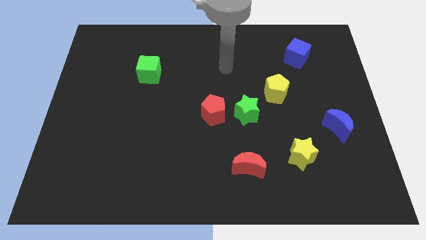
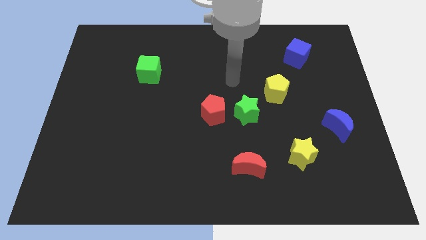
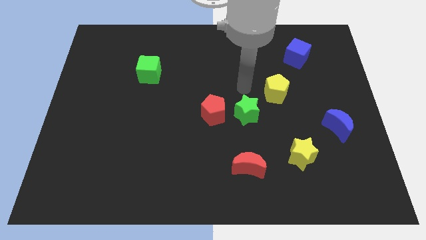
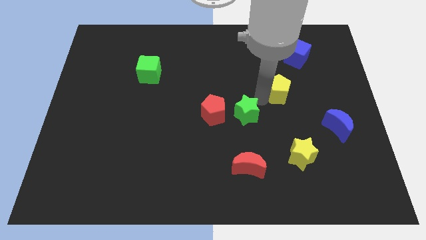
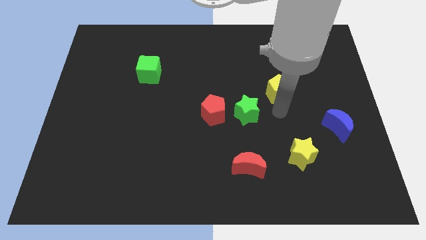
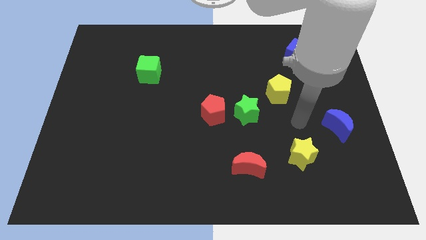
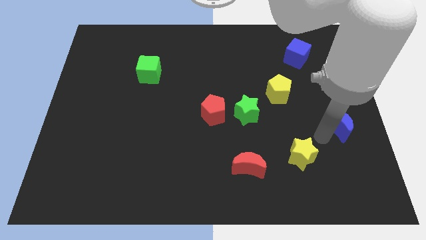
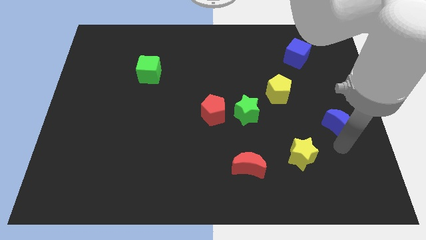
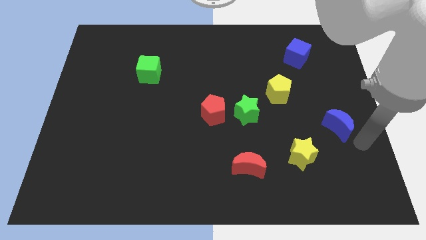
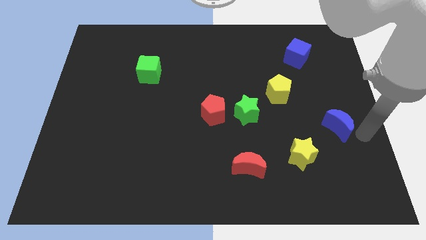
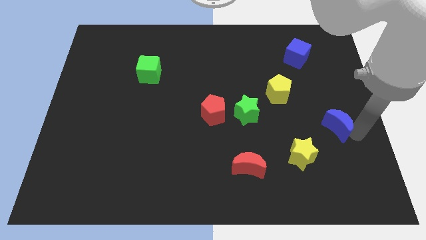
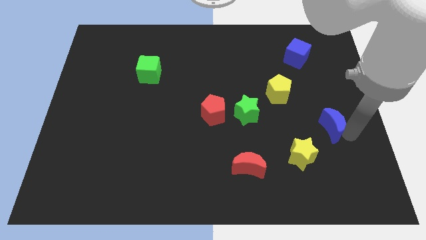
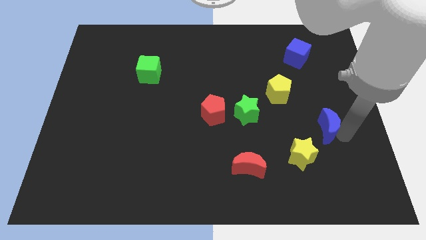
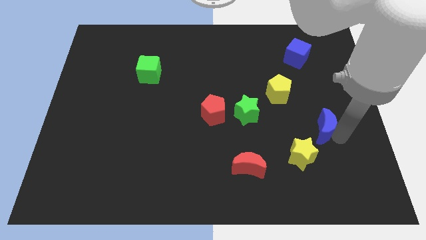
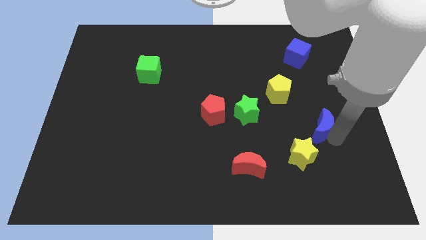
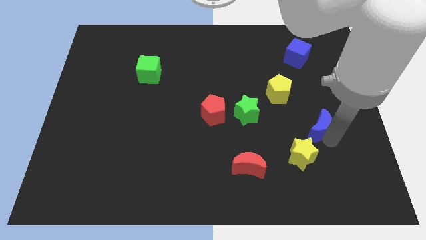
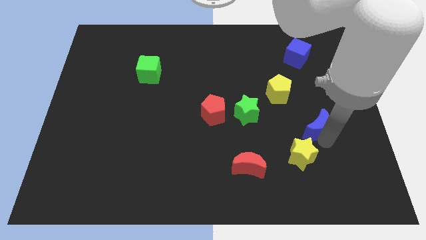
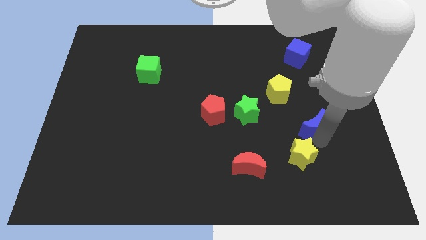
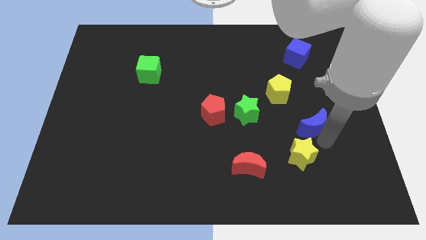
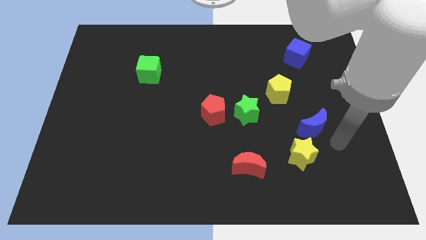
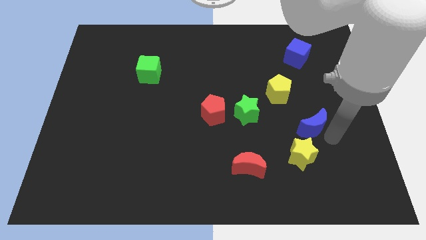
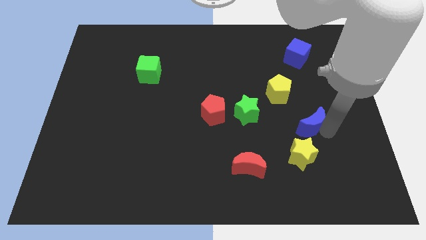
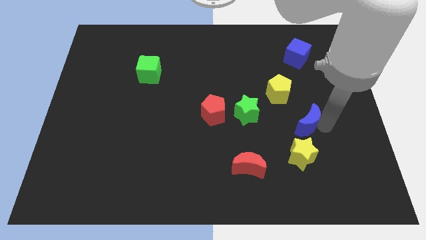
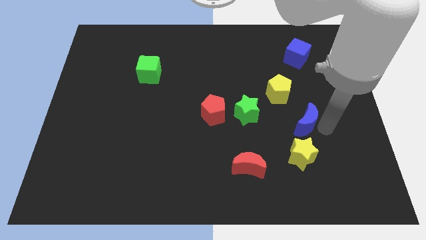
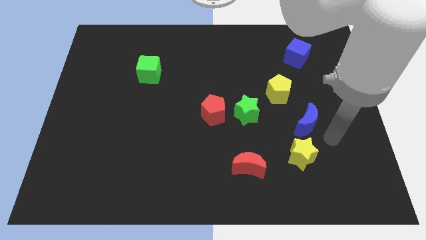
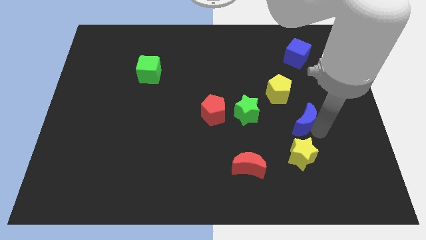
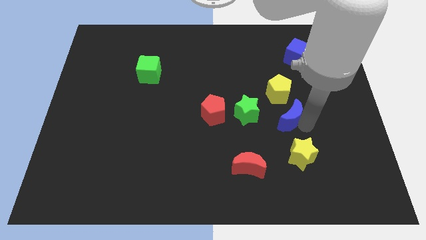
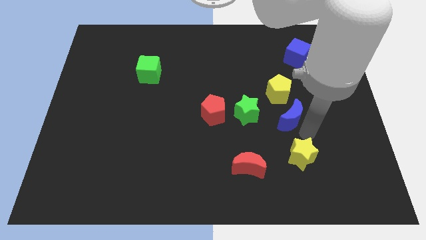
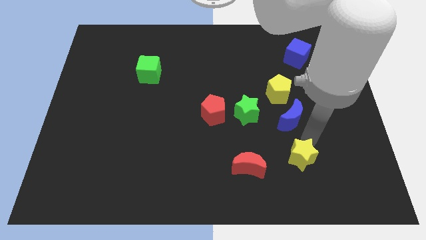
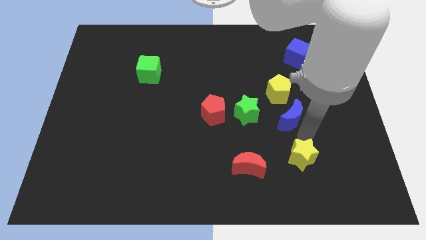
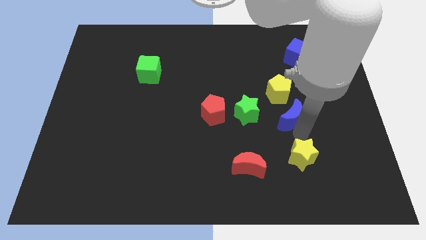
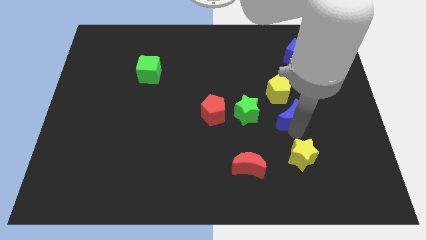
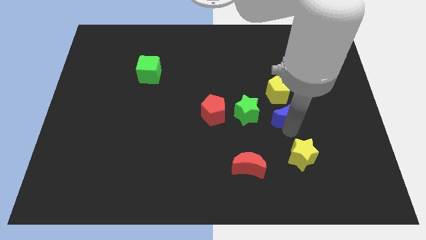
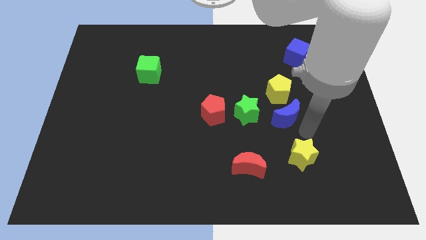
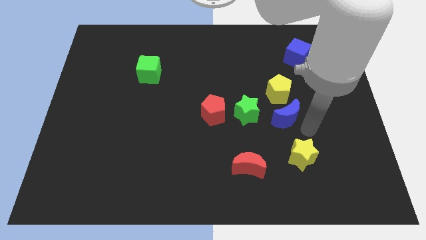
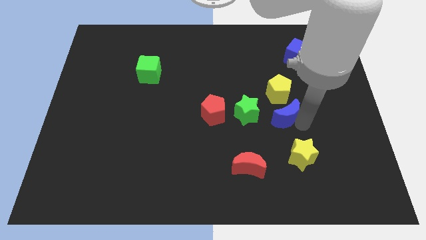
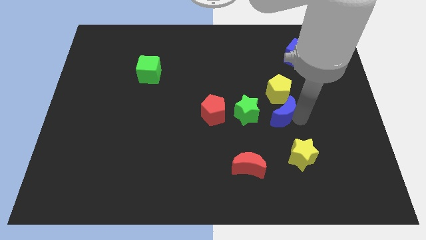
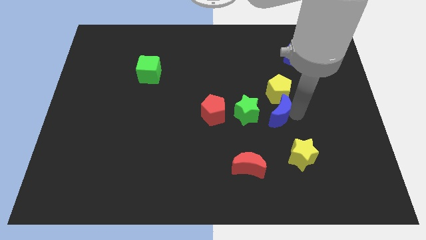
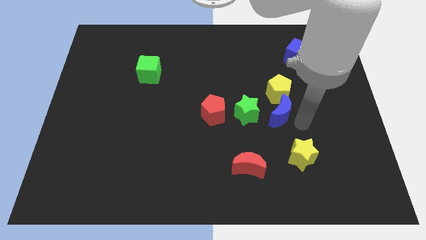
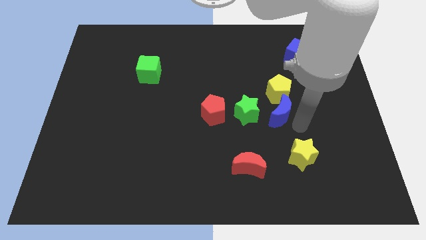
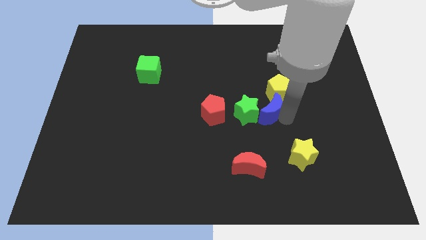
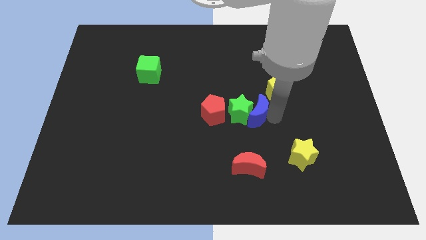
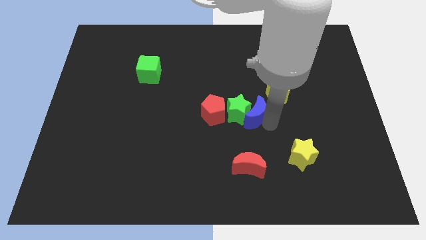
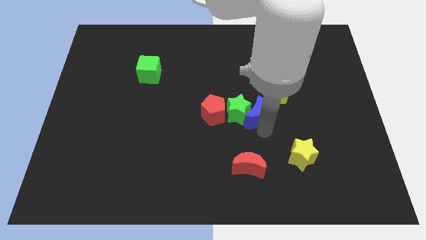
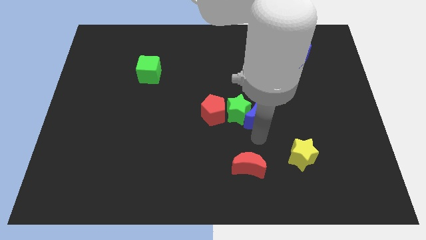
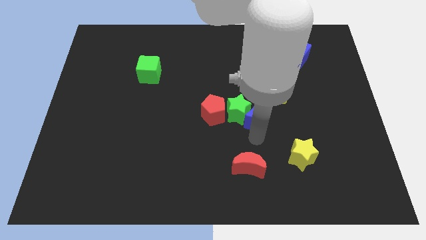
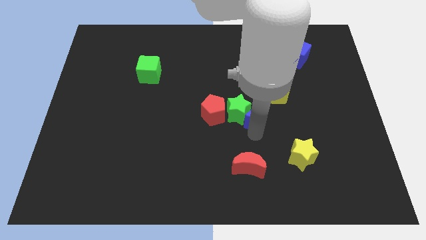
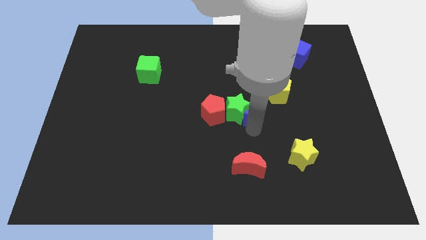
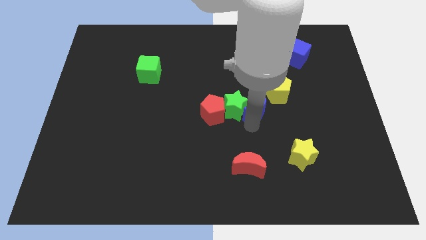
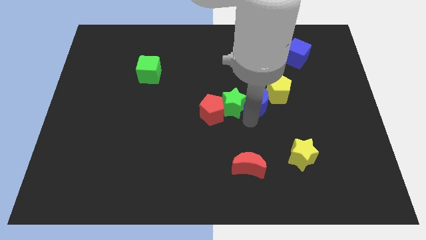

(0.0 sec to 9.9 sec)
push the blue moon left of the yellow pentagon

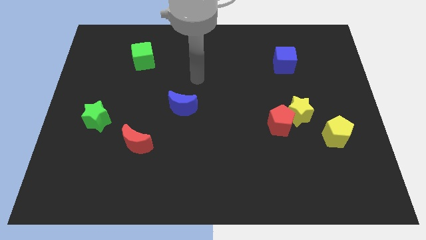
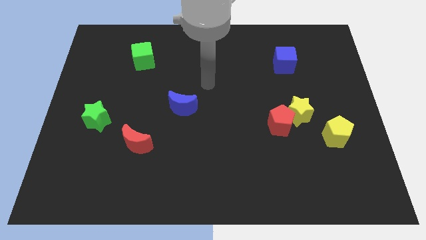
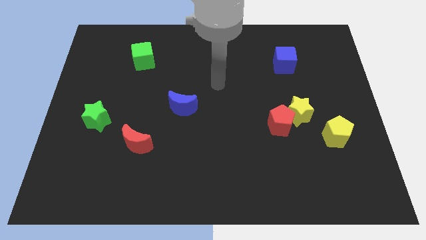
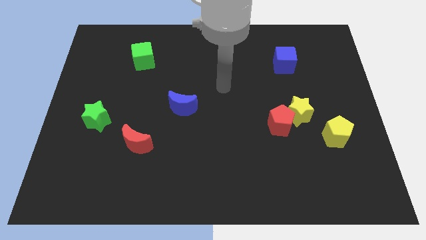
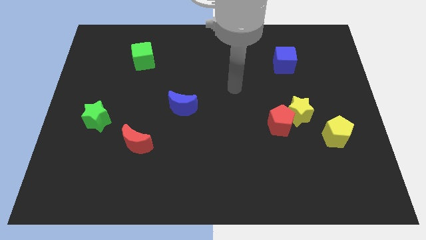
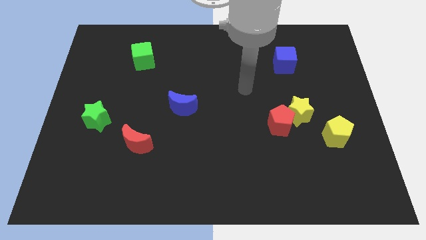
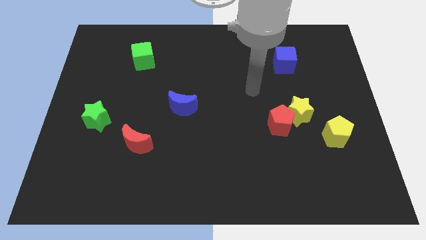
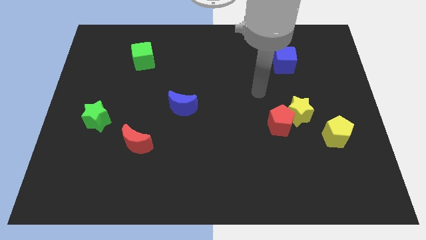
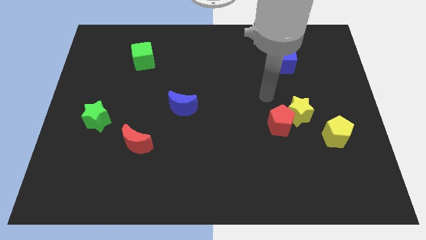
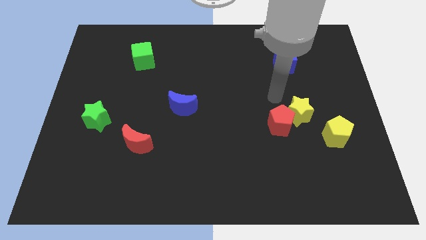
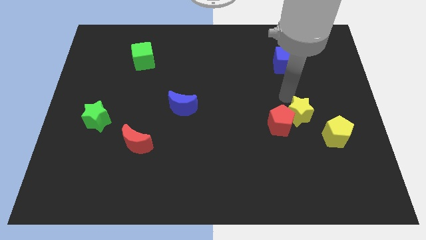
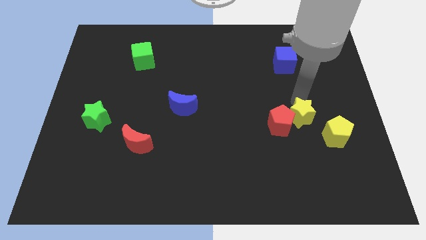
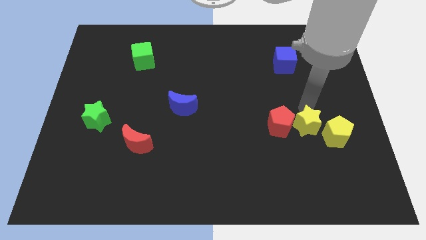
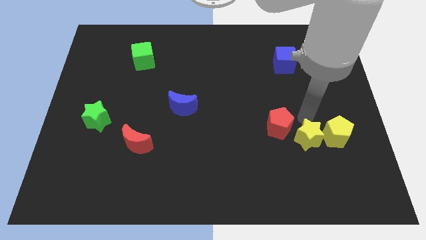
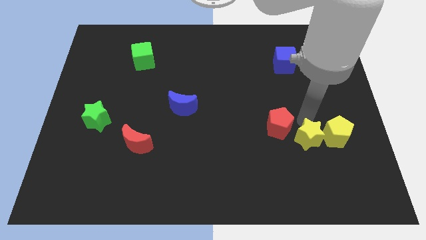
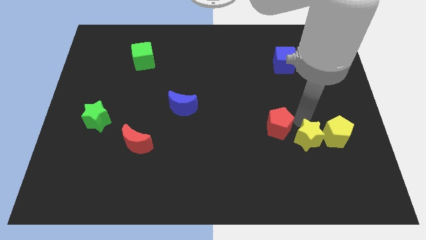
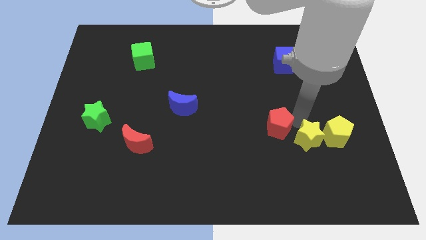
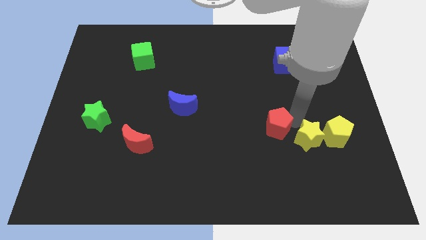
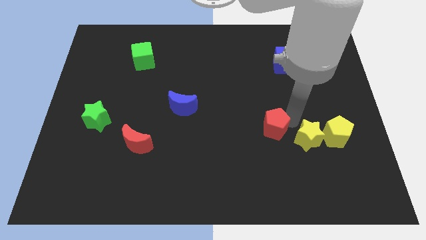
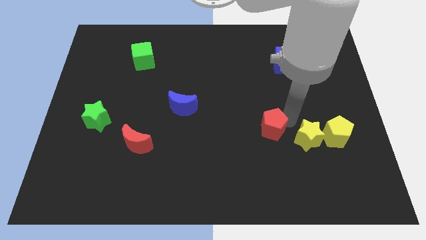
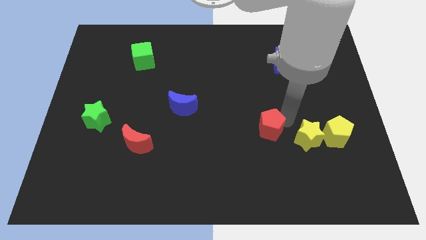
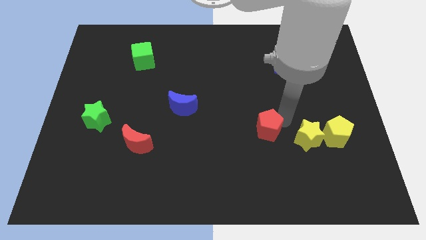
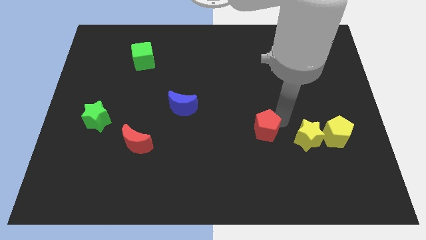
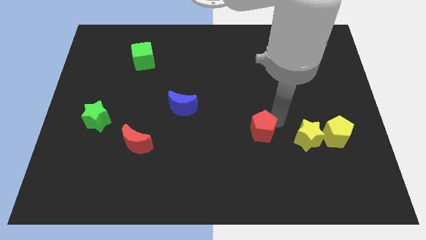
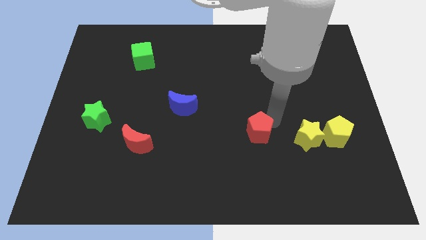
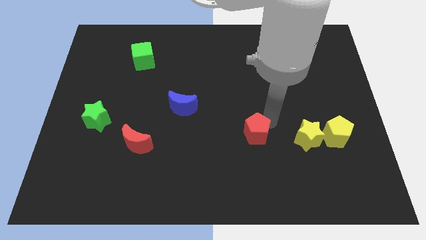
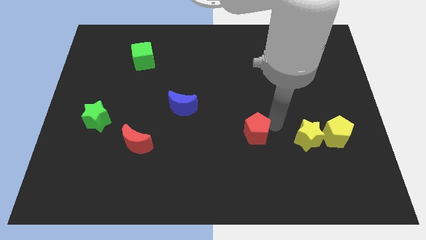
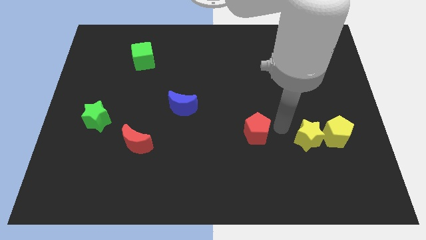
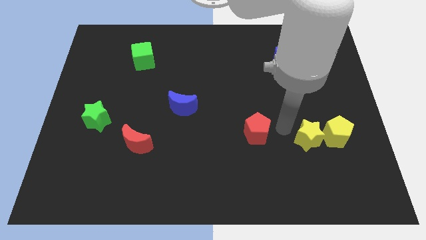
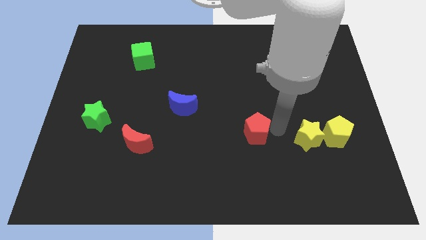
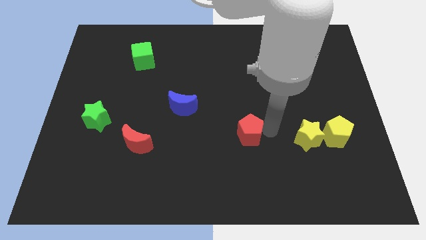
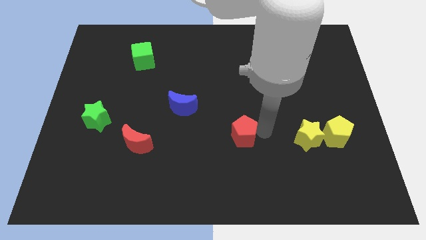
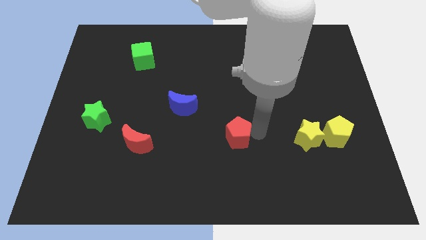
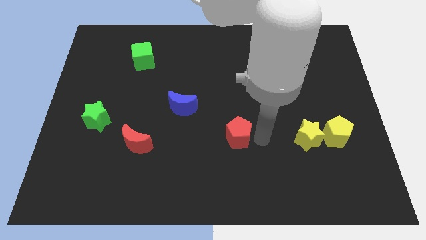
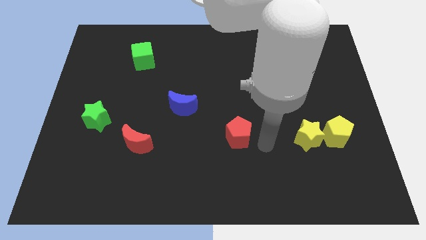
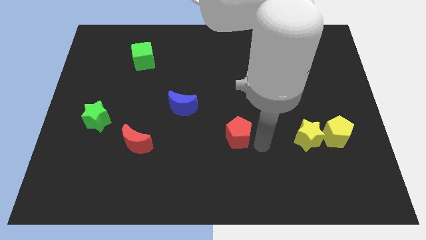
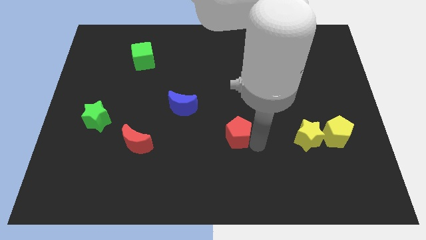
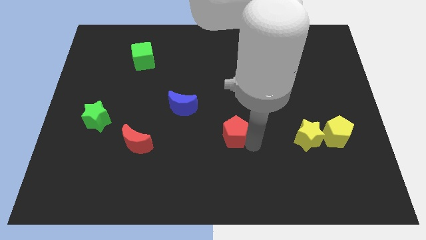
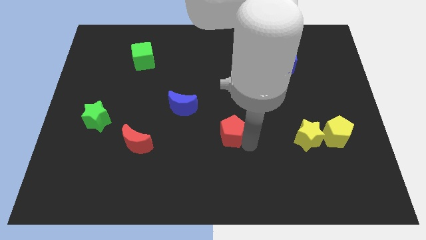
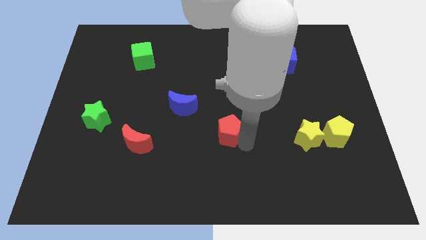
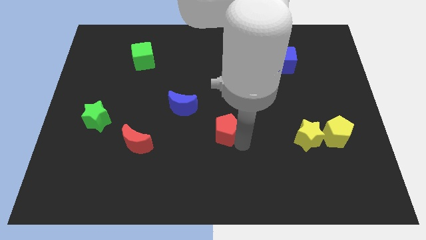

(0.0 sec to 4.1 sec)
move the red pentagon diagonally down and to the right of the blue moon
